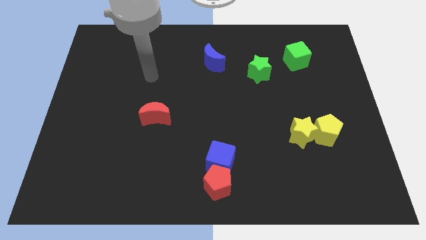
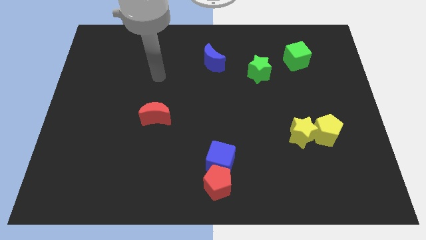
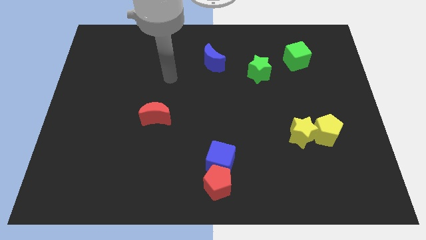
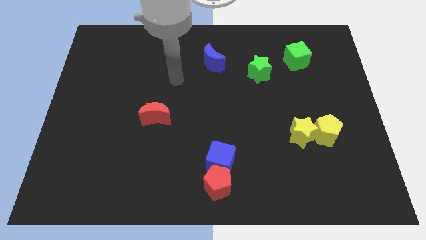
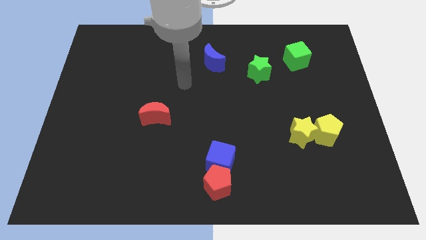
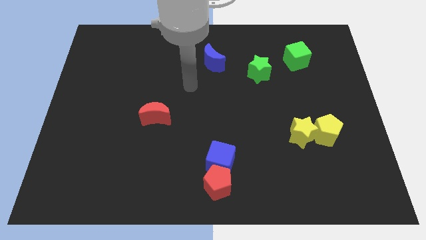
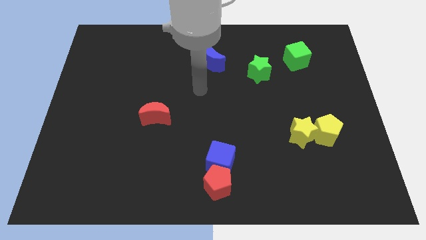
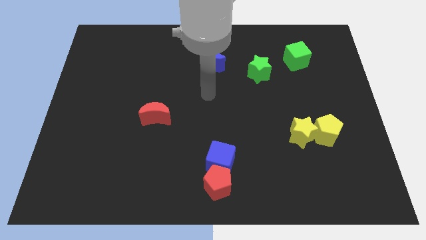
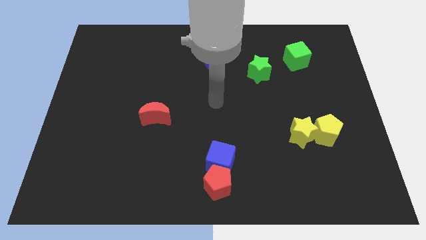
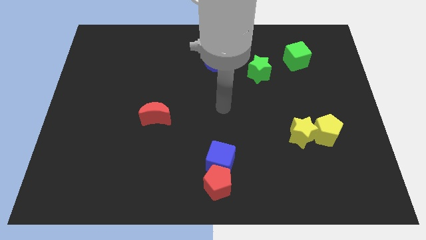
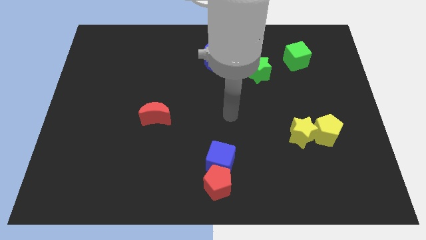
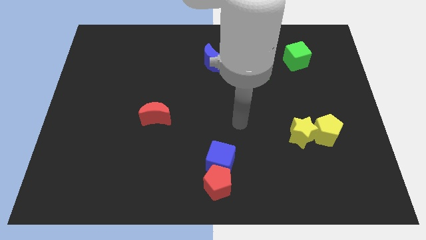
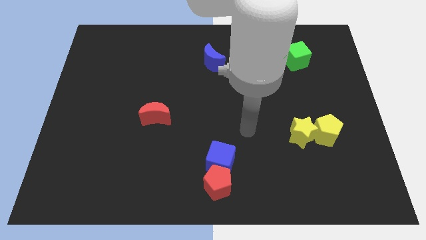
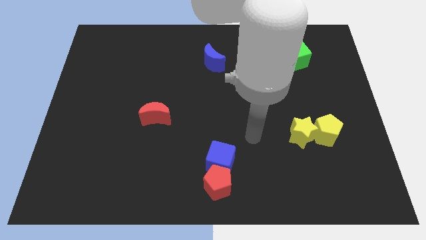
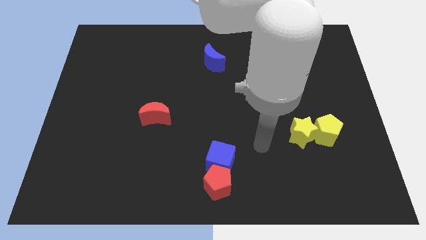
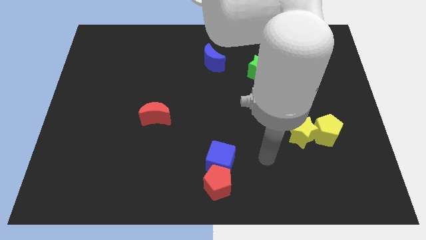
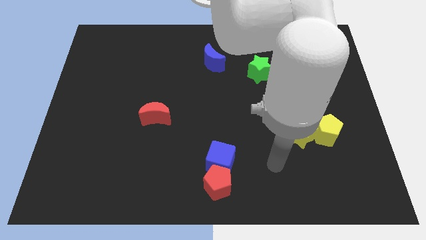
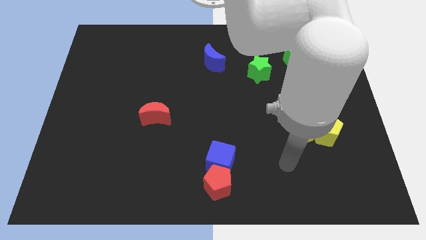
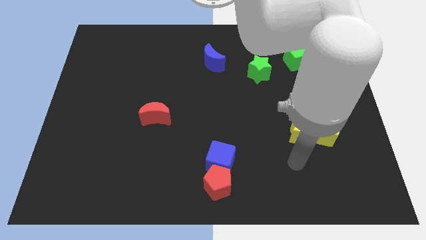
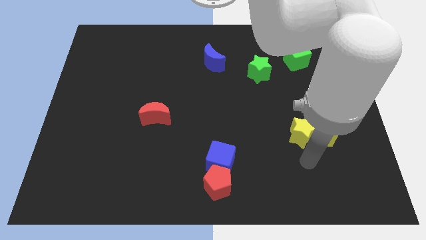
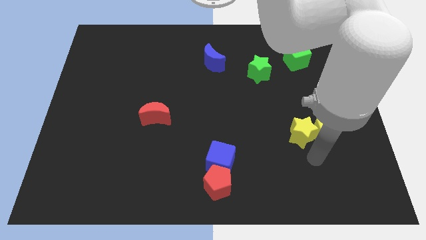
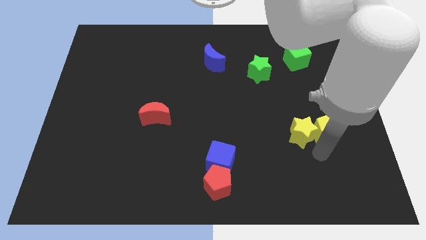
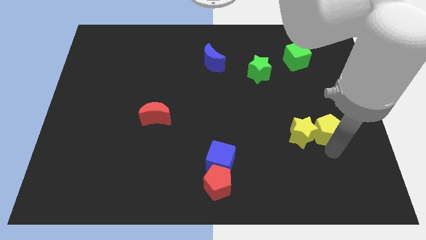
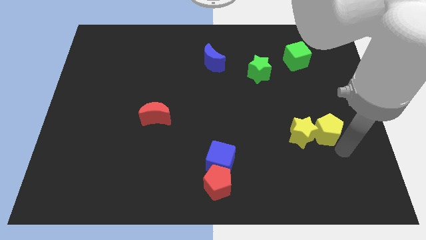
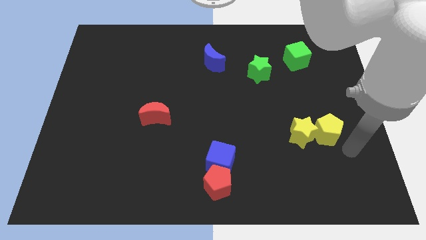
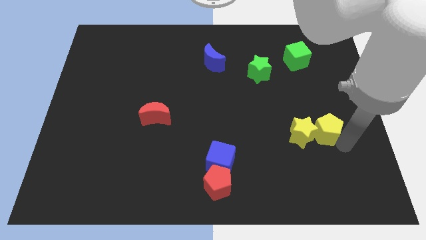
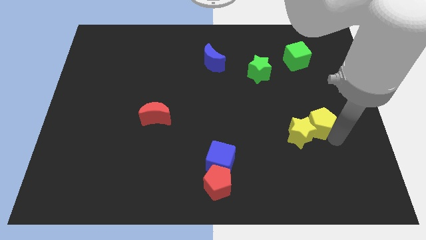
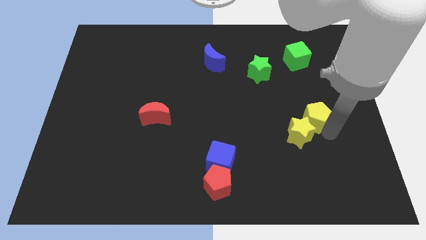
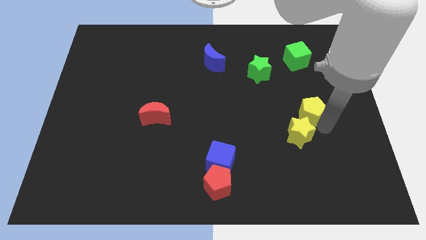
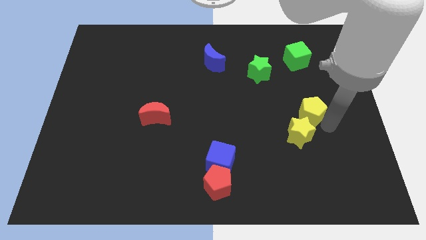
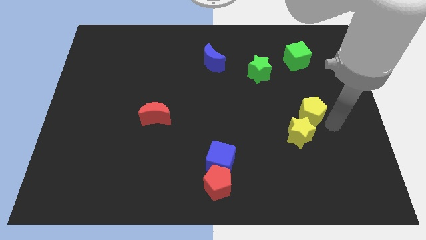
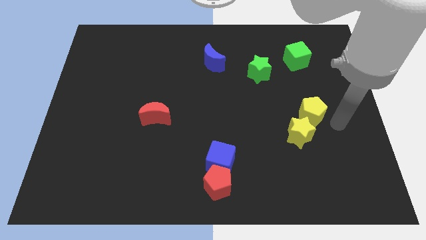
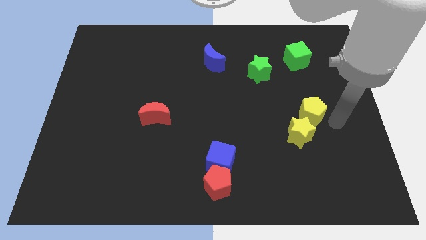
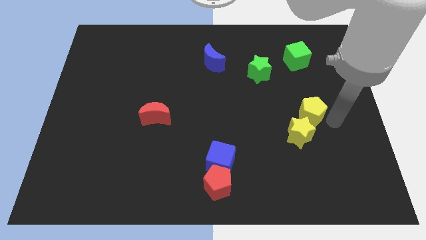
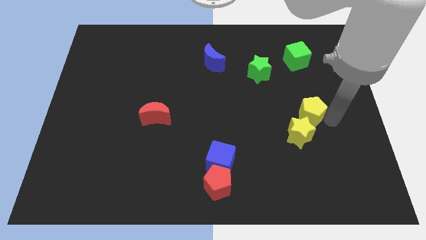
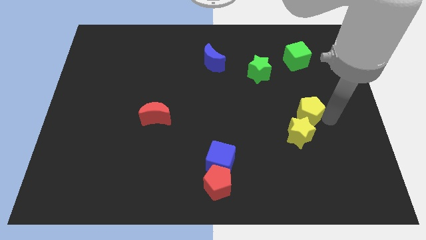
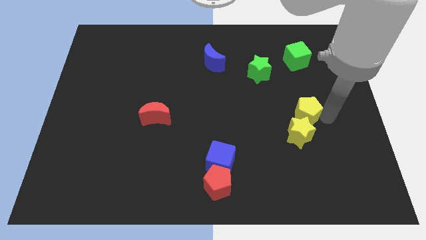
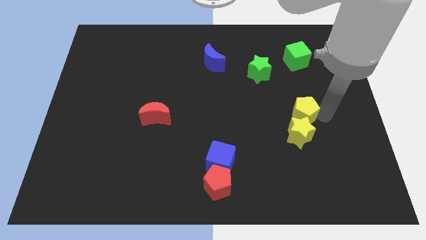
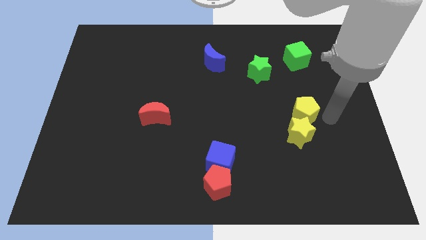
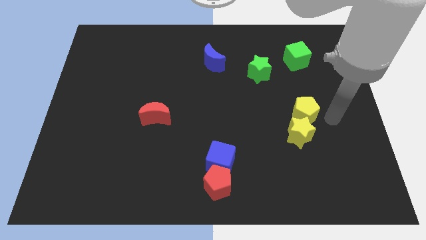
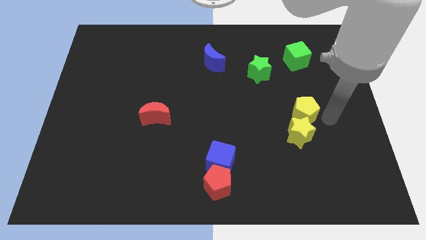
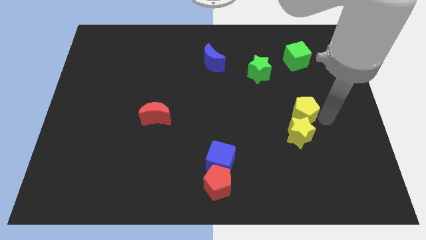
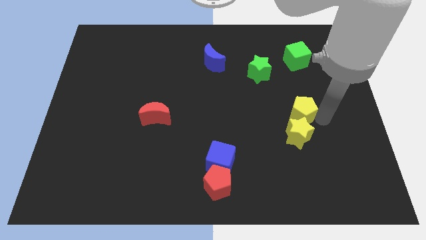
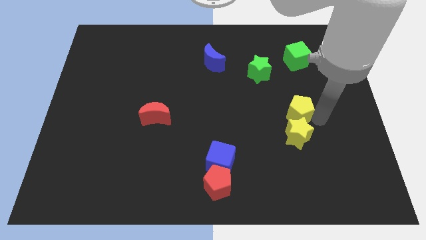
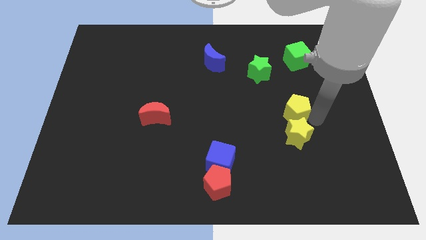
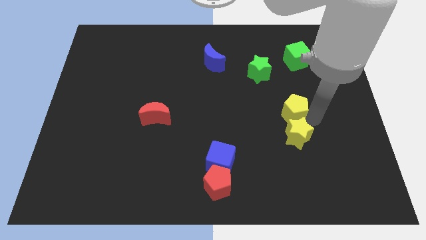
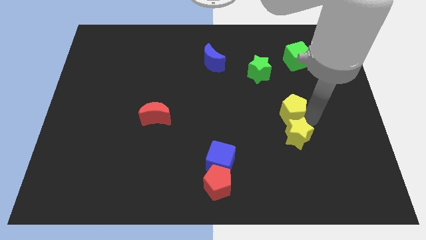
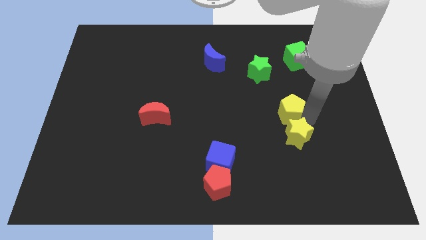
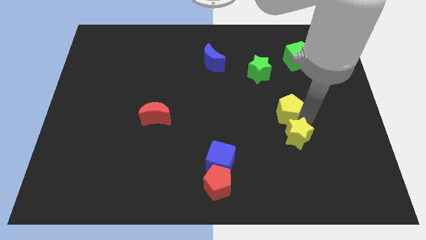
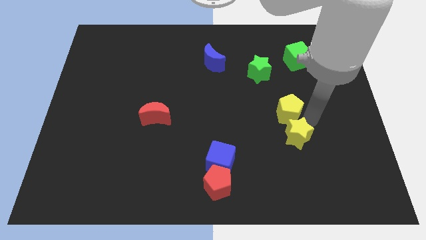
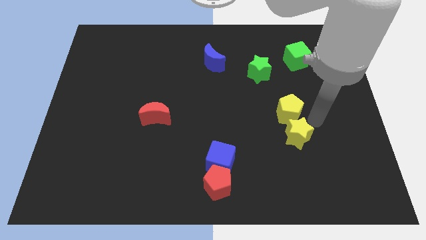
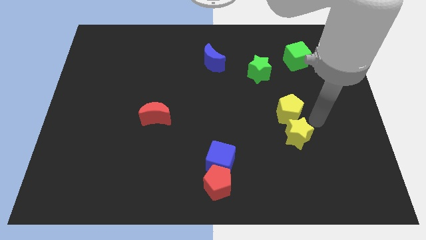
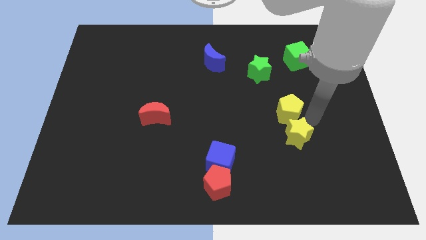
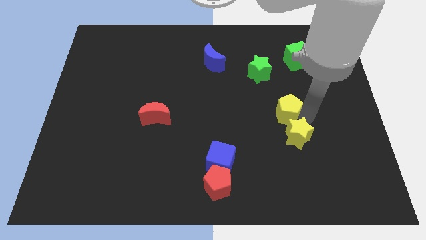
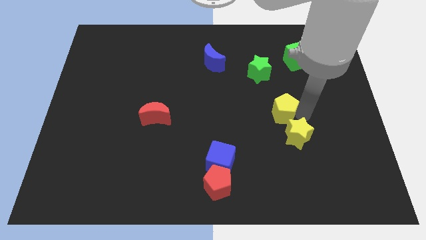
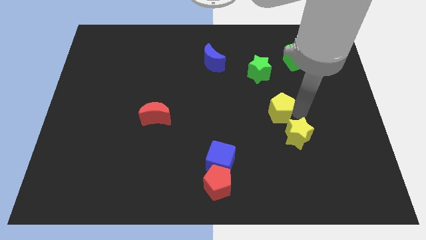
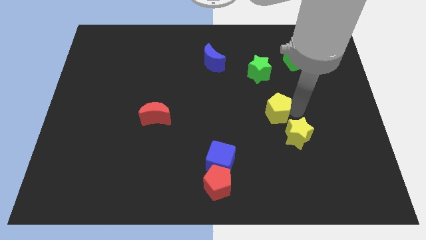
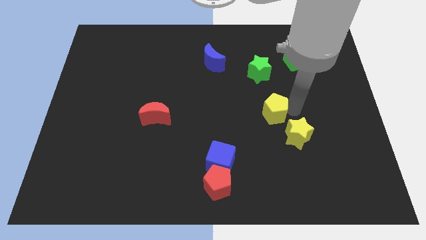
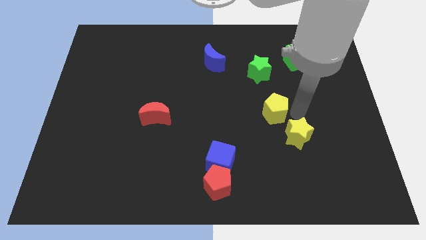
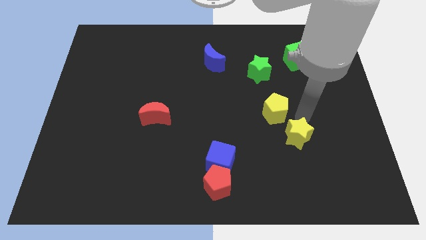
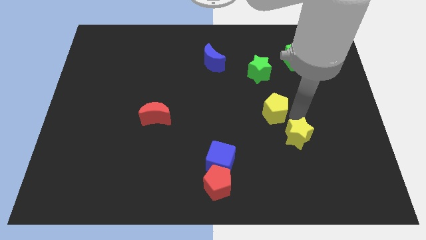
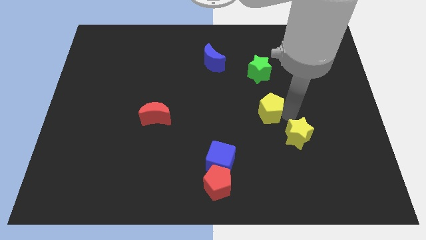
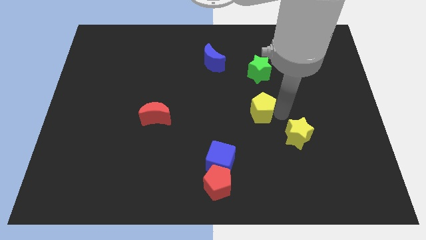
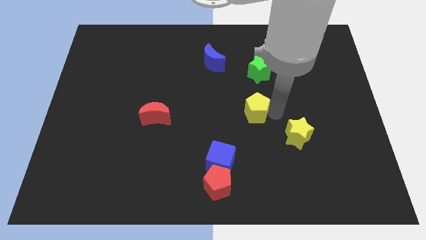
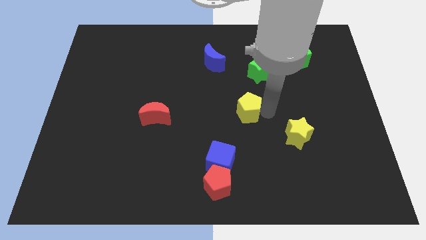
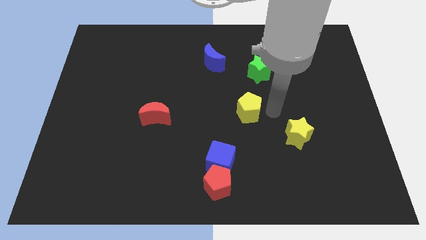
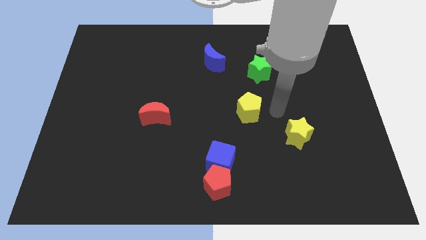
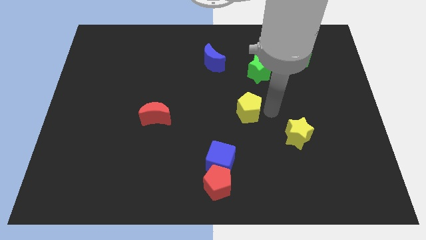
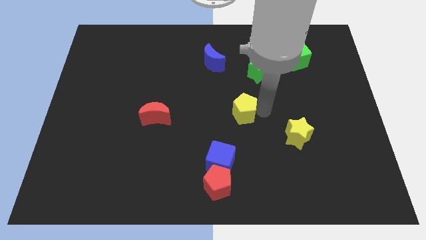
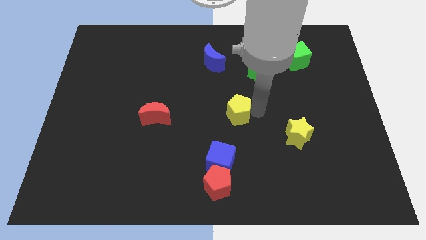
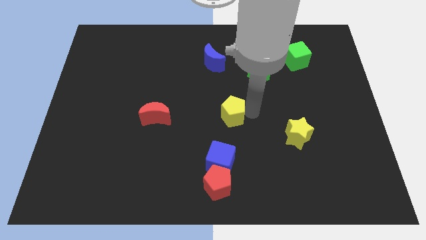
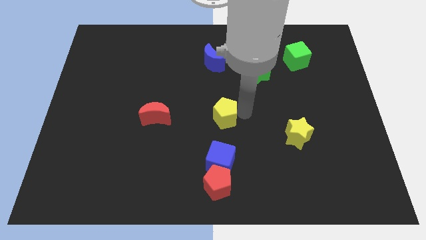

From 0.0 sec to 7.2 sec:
move the yellow pentagon to the left

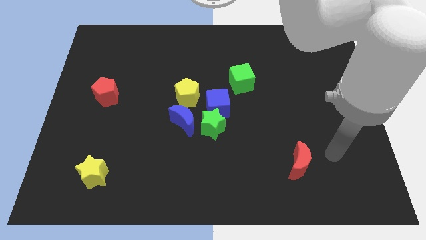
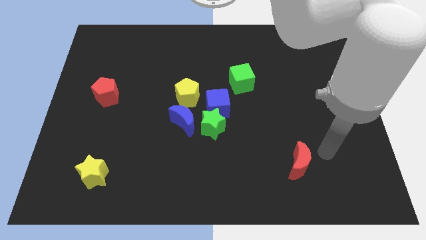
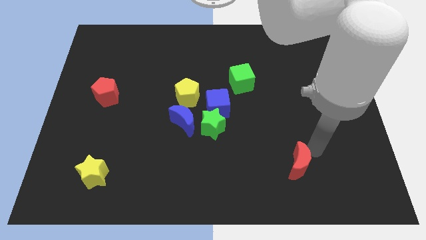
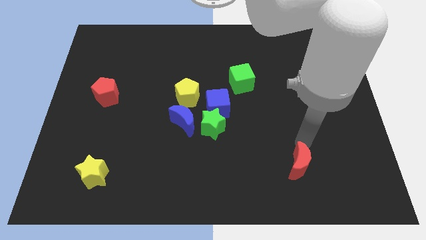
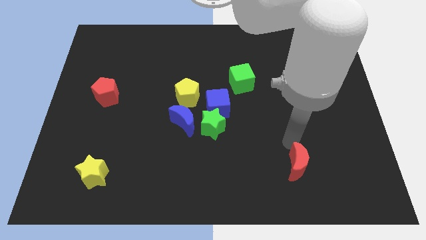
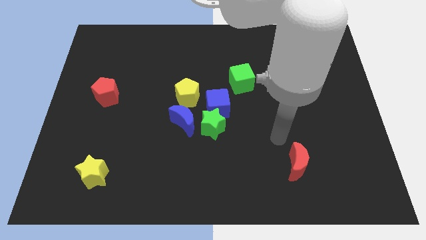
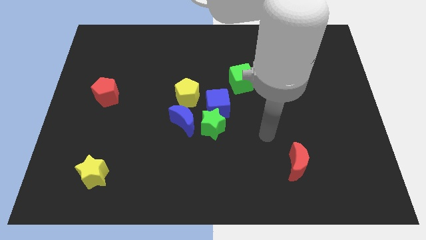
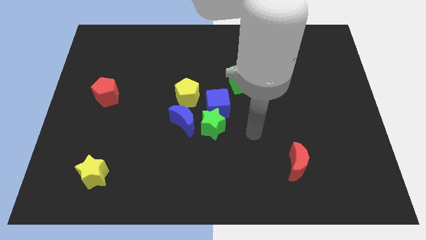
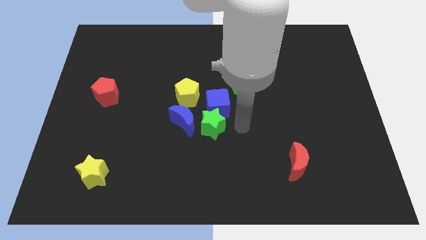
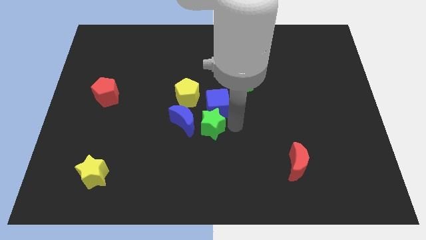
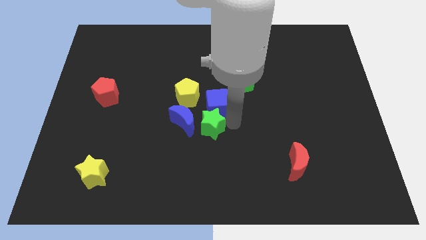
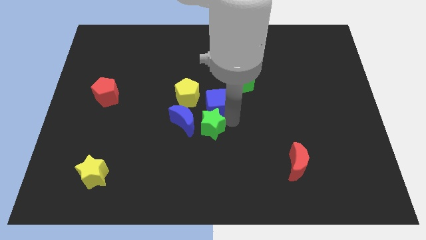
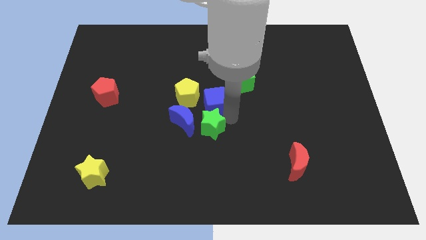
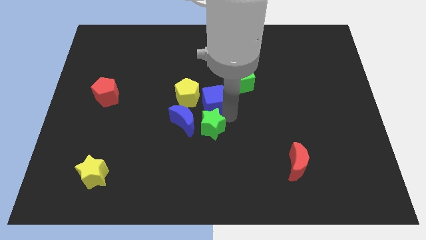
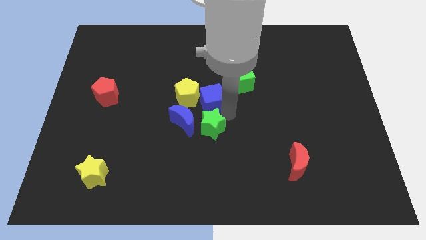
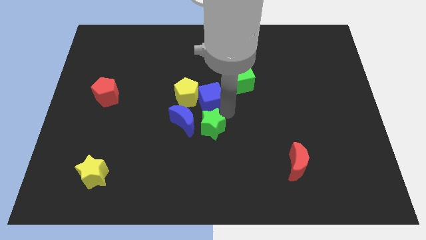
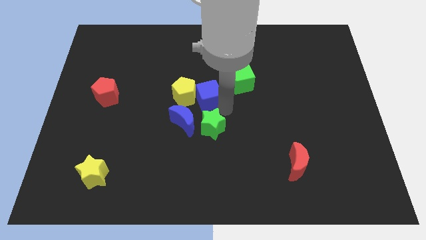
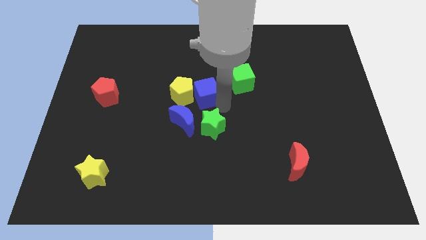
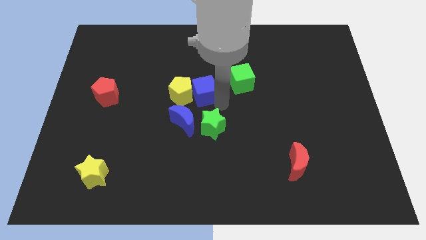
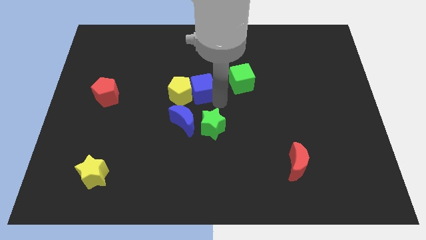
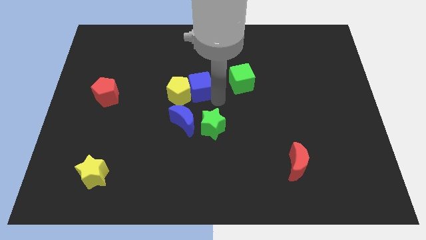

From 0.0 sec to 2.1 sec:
slide the blue cube up and to the left slightly
